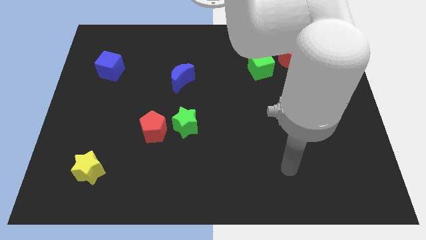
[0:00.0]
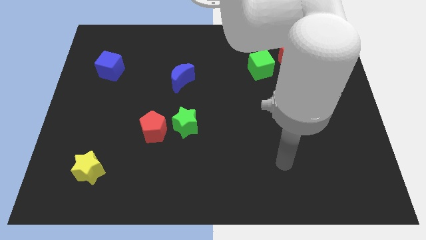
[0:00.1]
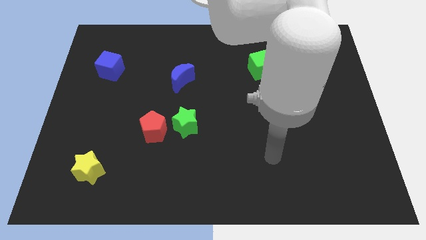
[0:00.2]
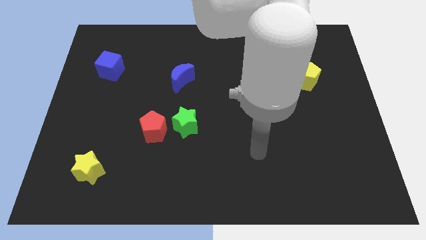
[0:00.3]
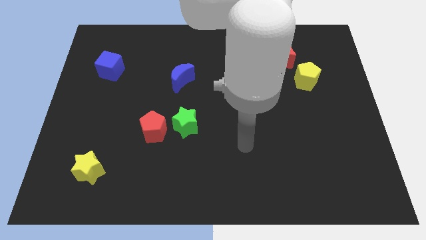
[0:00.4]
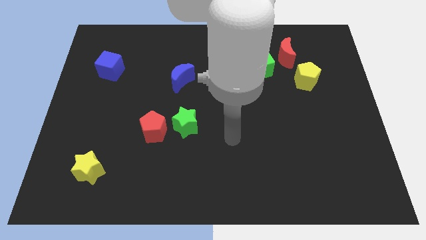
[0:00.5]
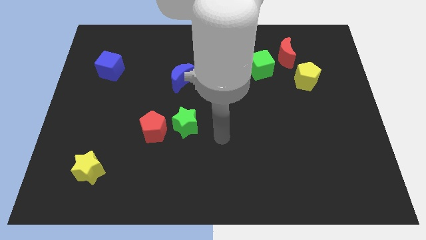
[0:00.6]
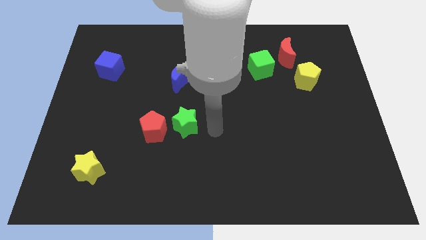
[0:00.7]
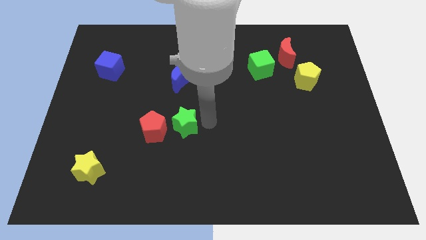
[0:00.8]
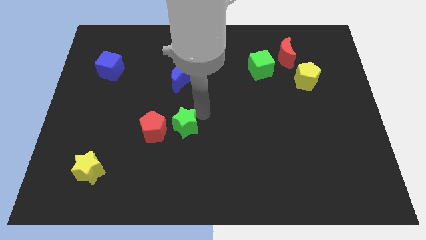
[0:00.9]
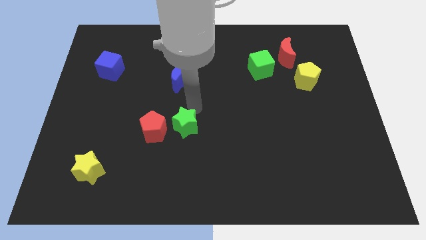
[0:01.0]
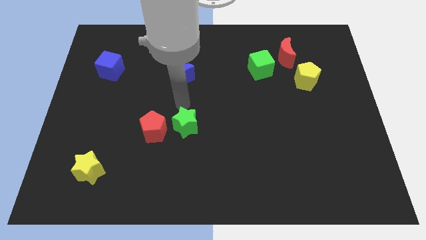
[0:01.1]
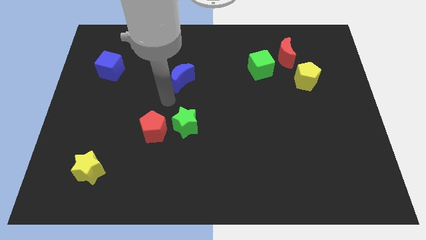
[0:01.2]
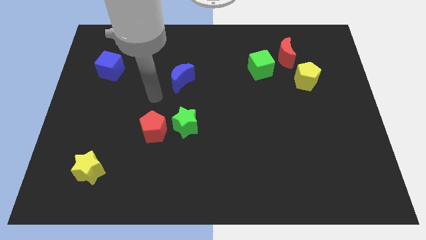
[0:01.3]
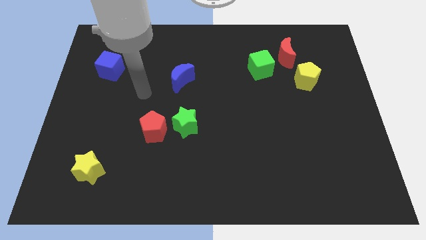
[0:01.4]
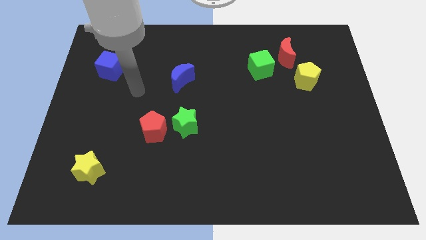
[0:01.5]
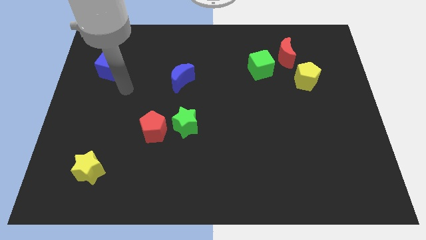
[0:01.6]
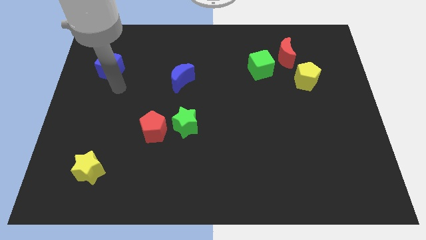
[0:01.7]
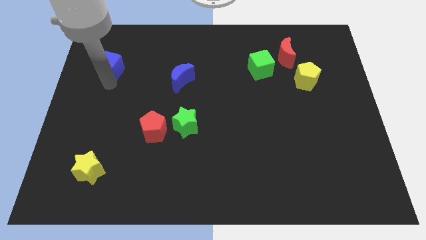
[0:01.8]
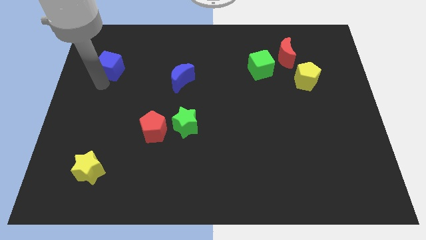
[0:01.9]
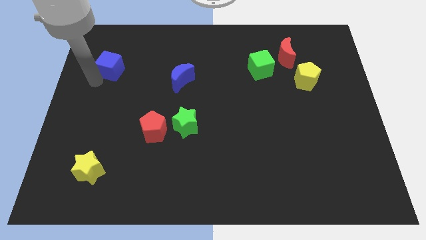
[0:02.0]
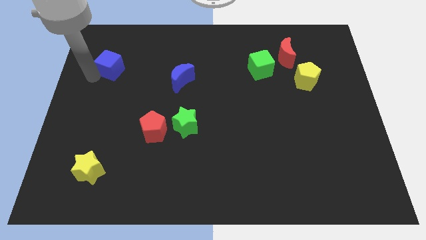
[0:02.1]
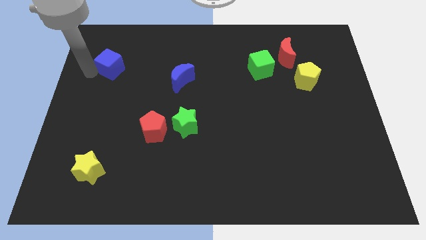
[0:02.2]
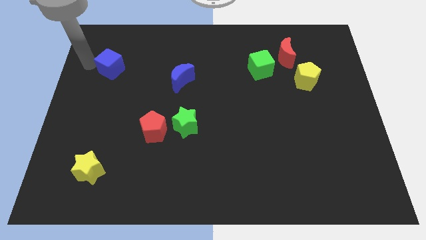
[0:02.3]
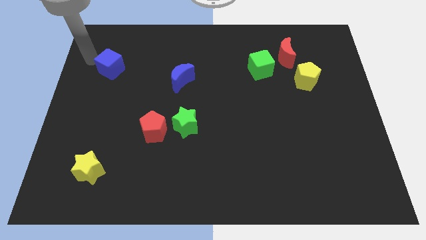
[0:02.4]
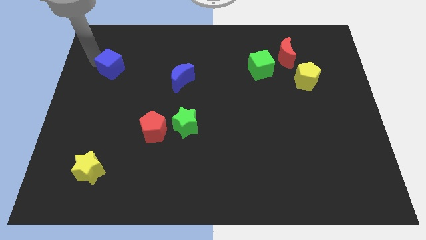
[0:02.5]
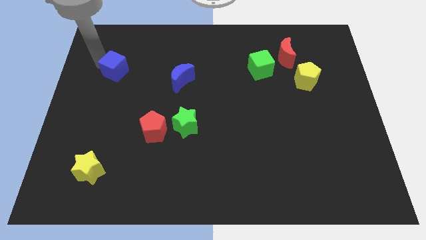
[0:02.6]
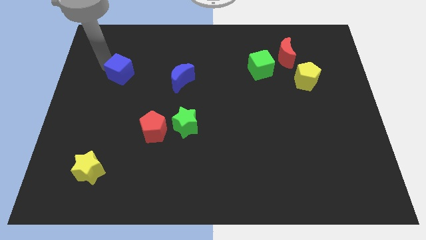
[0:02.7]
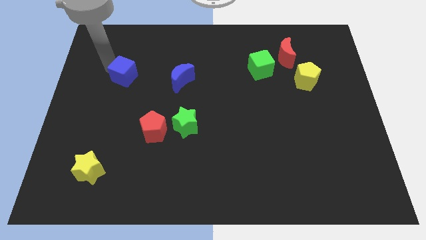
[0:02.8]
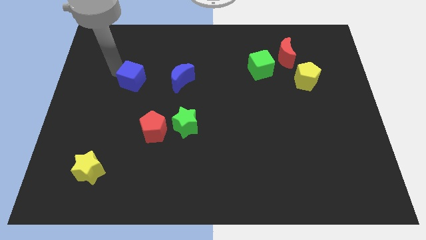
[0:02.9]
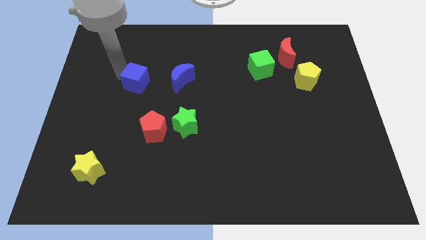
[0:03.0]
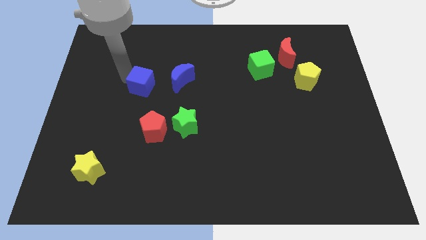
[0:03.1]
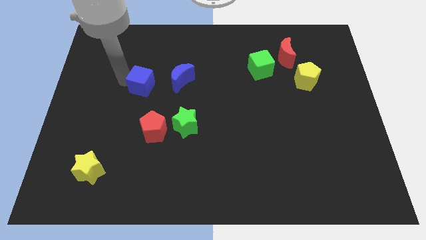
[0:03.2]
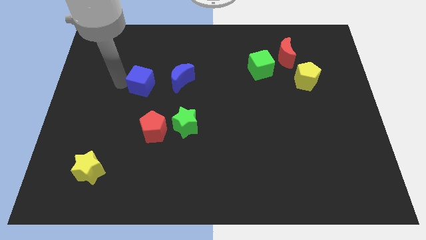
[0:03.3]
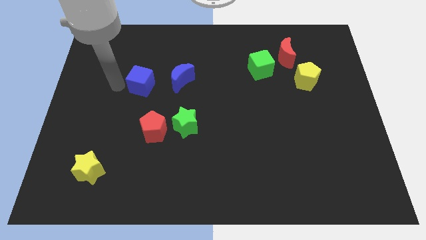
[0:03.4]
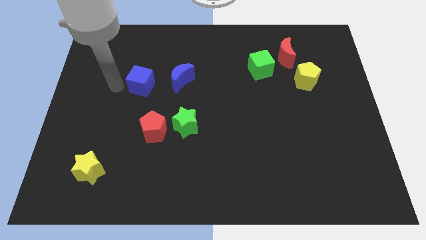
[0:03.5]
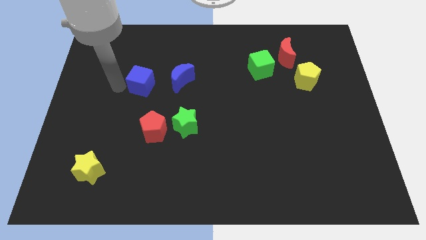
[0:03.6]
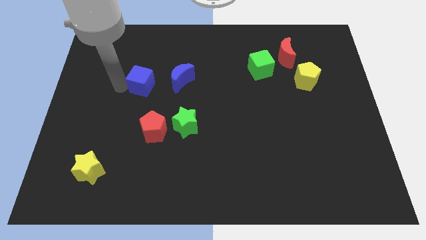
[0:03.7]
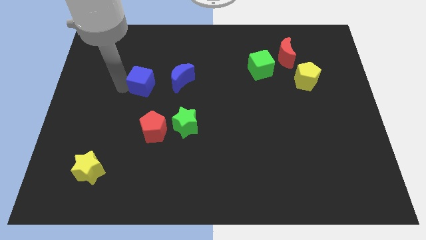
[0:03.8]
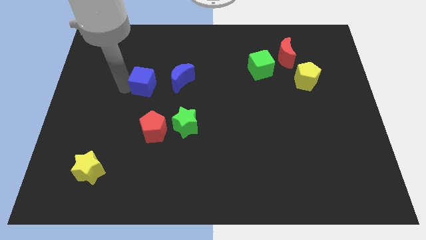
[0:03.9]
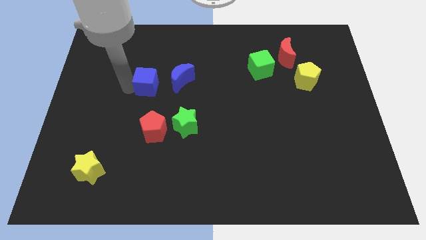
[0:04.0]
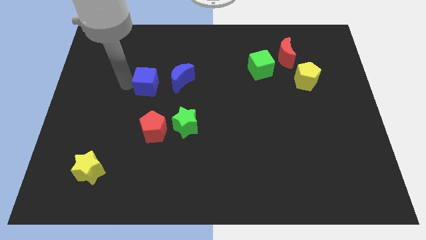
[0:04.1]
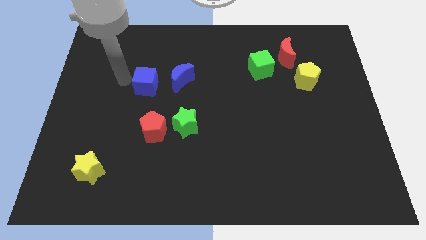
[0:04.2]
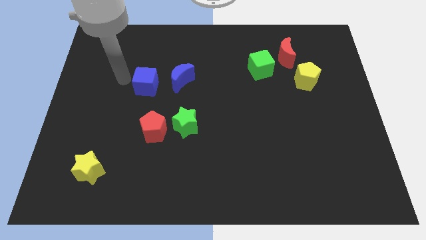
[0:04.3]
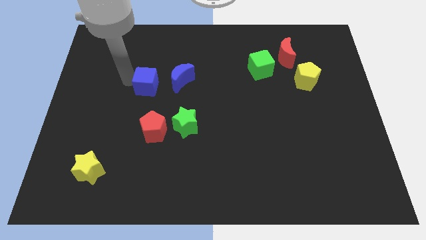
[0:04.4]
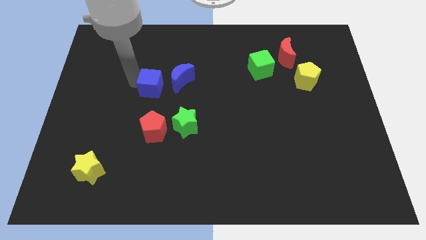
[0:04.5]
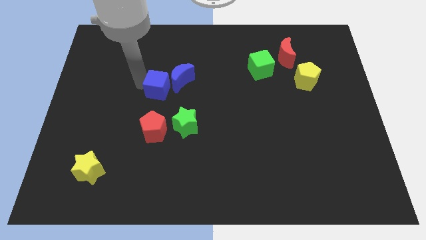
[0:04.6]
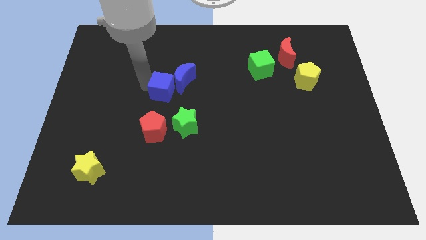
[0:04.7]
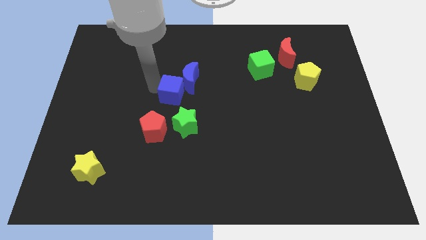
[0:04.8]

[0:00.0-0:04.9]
slide the blue cube to the center
